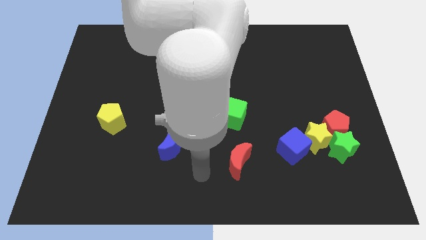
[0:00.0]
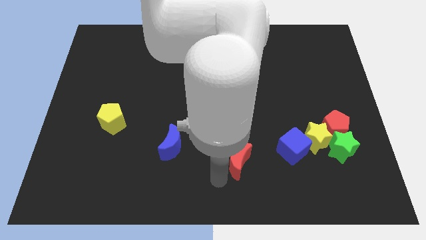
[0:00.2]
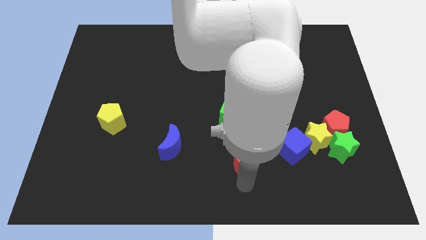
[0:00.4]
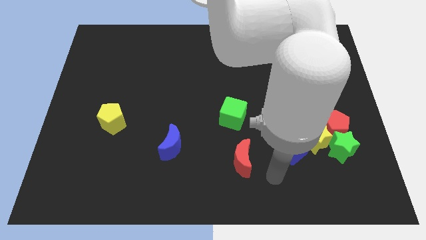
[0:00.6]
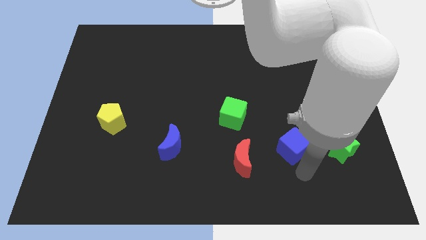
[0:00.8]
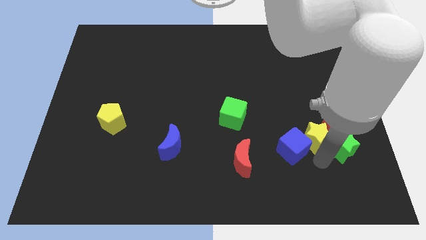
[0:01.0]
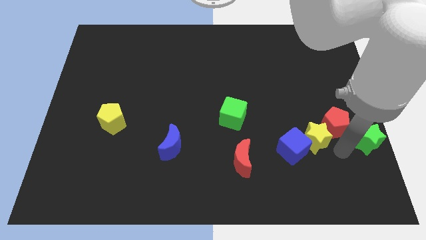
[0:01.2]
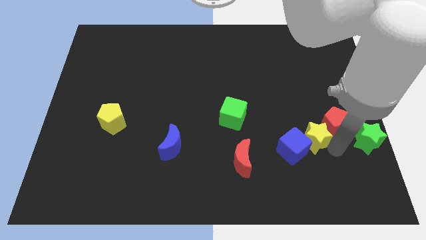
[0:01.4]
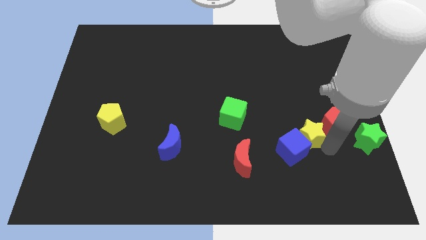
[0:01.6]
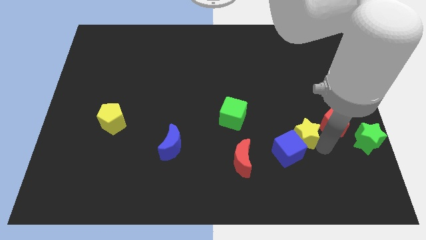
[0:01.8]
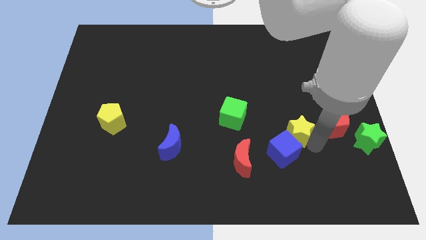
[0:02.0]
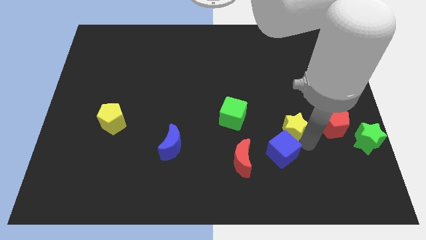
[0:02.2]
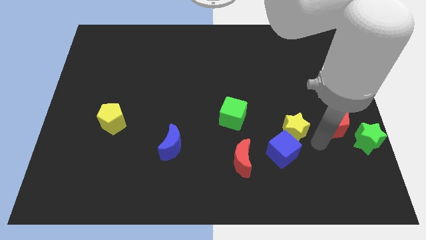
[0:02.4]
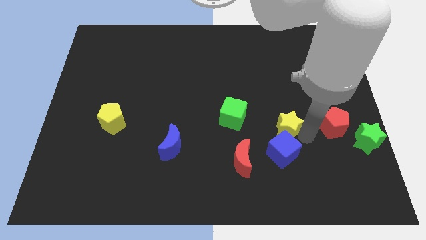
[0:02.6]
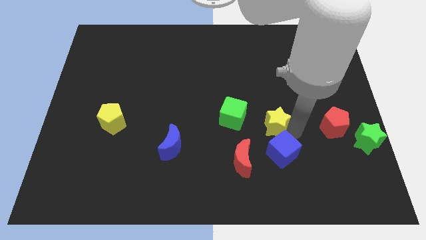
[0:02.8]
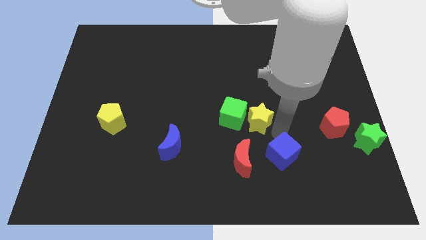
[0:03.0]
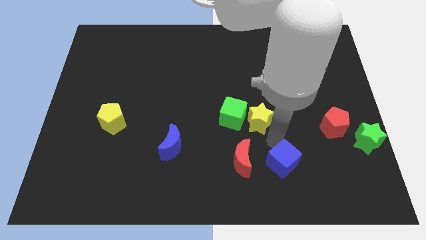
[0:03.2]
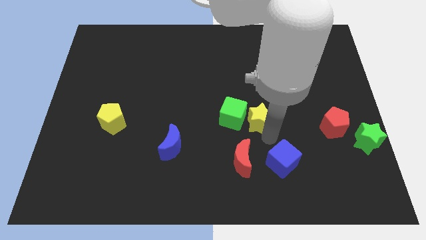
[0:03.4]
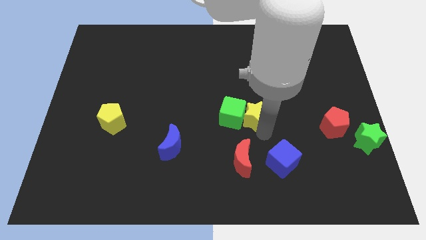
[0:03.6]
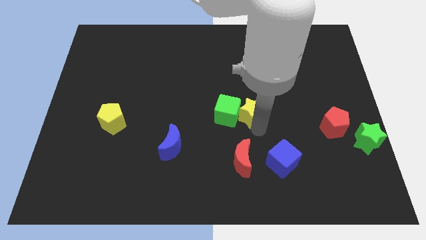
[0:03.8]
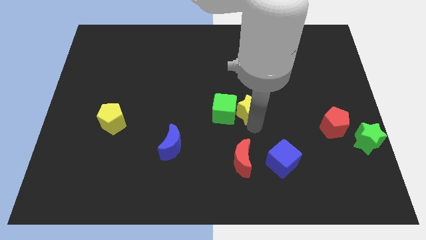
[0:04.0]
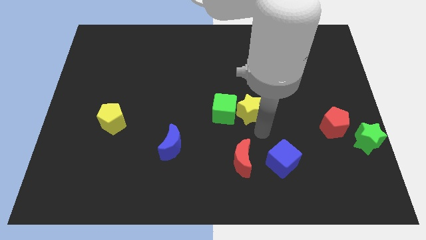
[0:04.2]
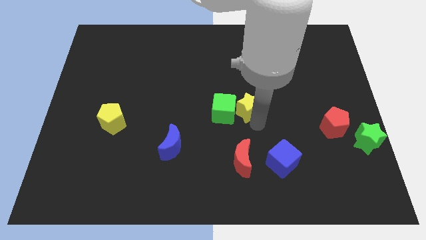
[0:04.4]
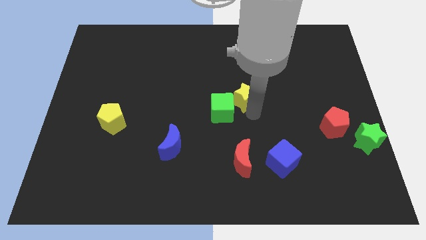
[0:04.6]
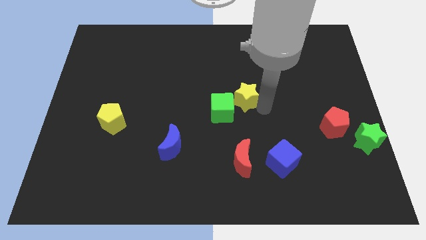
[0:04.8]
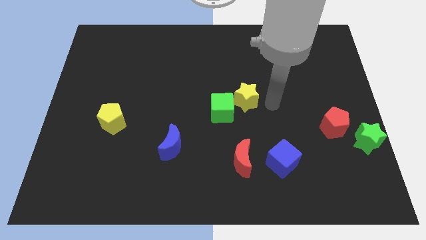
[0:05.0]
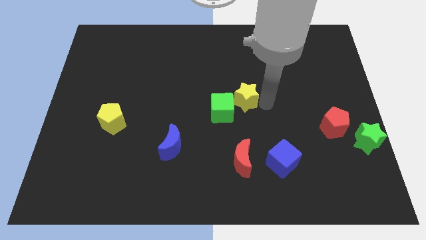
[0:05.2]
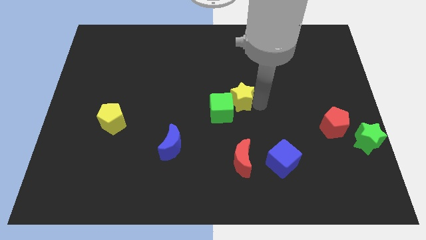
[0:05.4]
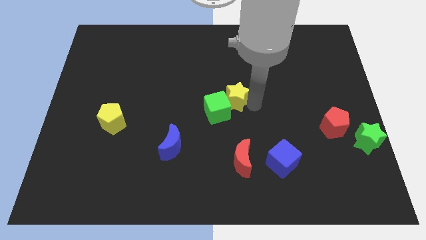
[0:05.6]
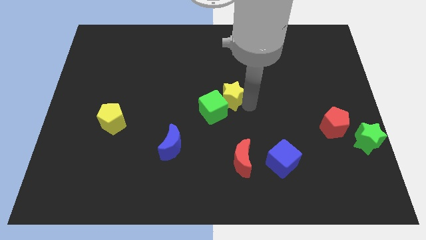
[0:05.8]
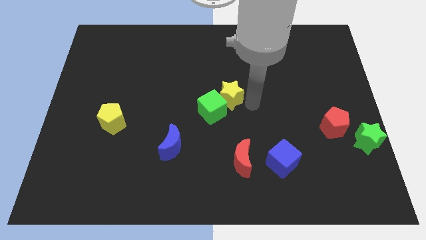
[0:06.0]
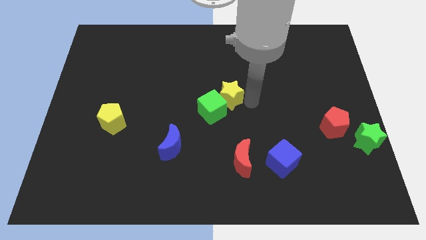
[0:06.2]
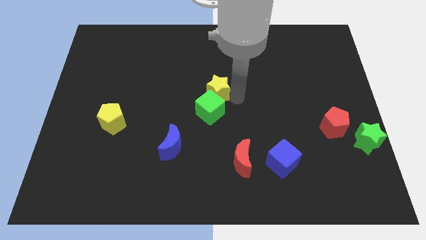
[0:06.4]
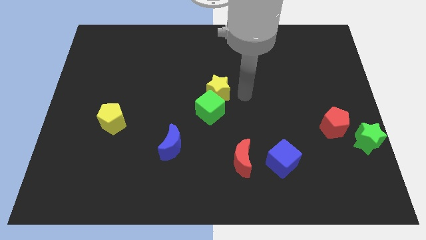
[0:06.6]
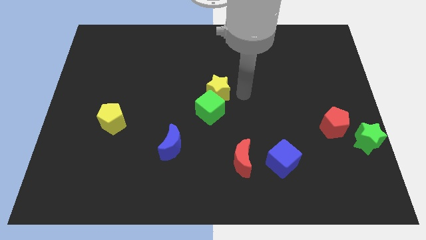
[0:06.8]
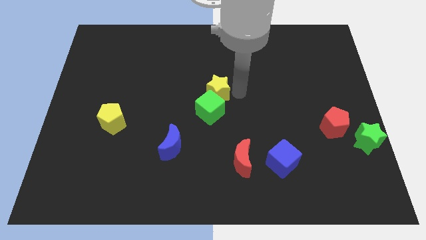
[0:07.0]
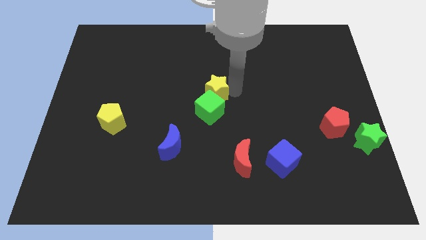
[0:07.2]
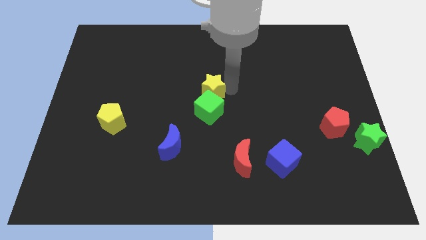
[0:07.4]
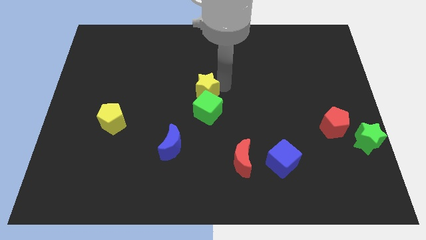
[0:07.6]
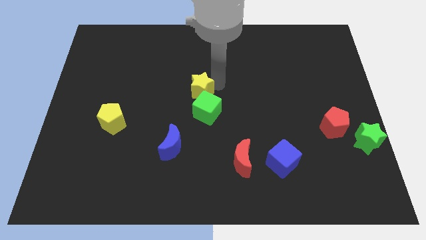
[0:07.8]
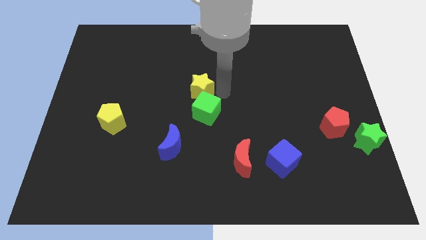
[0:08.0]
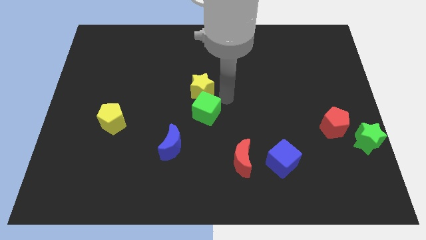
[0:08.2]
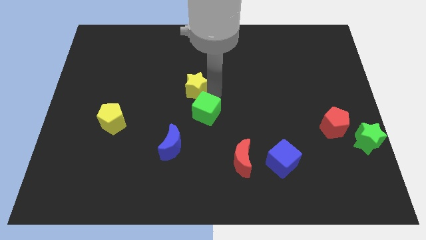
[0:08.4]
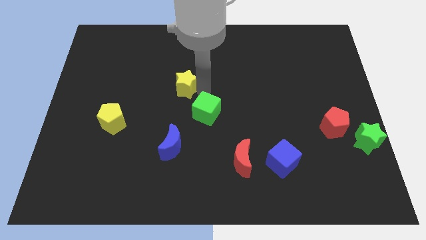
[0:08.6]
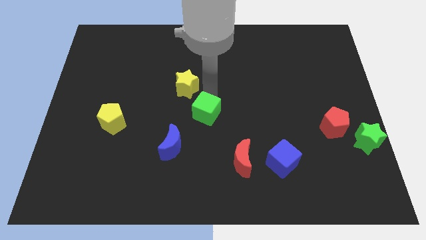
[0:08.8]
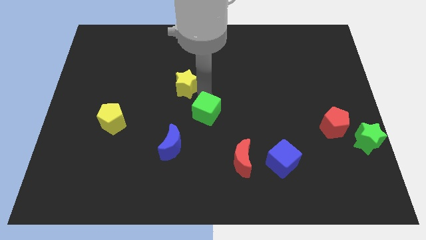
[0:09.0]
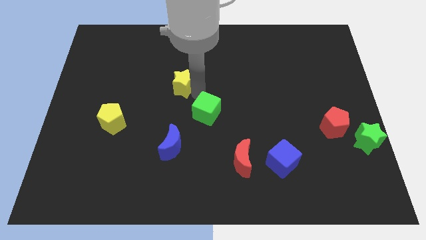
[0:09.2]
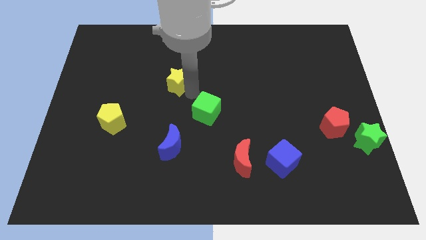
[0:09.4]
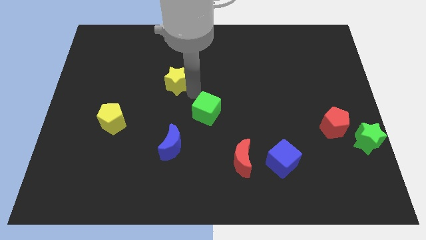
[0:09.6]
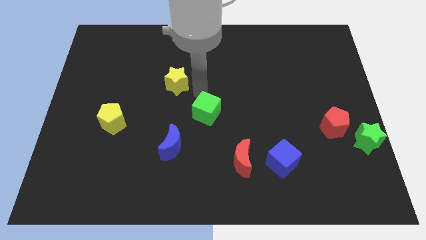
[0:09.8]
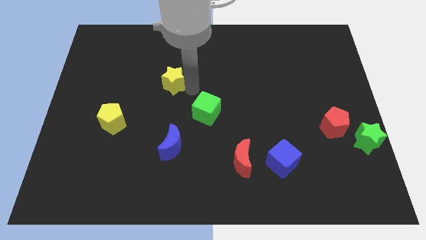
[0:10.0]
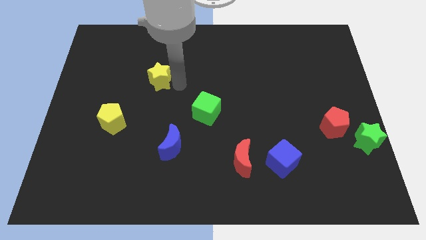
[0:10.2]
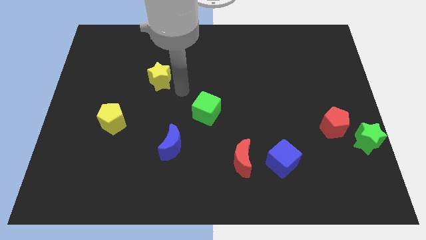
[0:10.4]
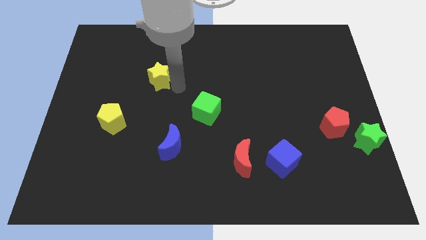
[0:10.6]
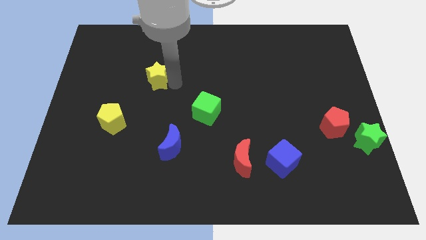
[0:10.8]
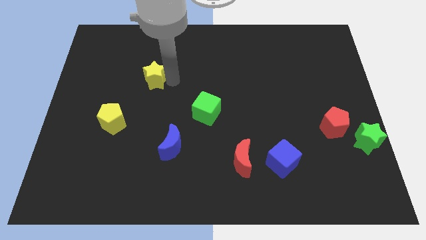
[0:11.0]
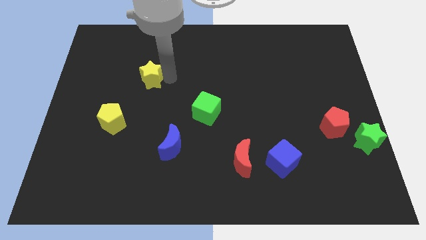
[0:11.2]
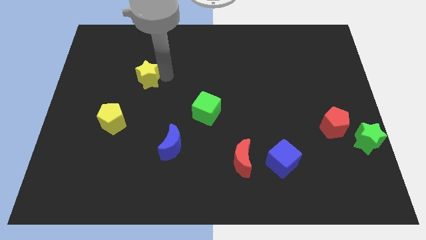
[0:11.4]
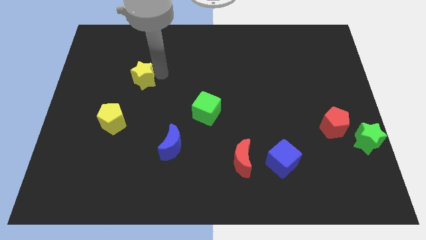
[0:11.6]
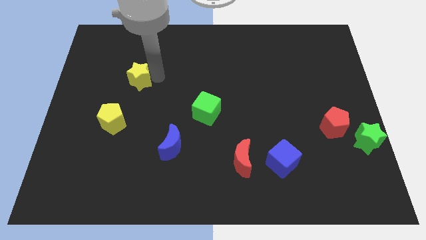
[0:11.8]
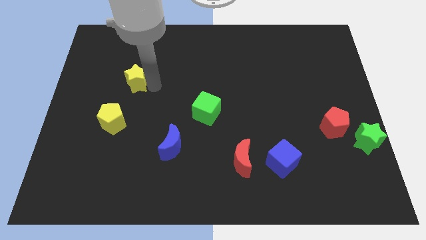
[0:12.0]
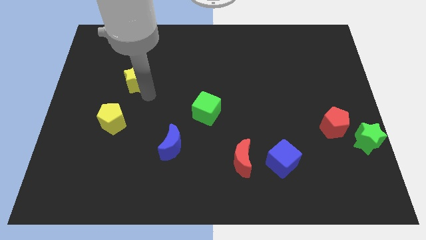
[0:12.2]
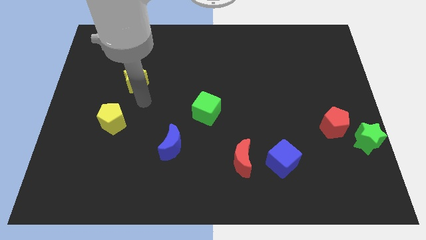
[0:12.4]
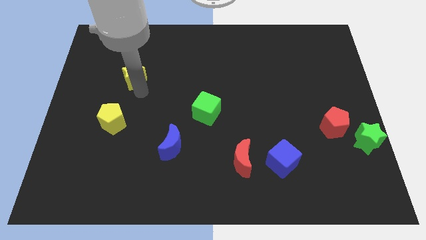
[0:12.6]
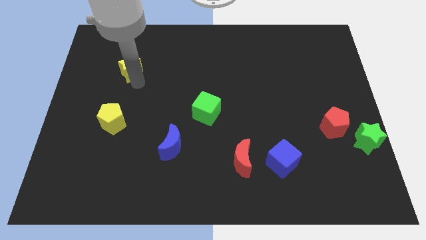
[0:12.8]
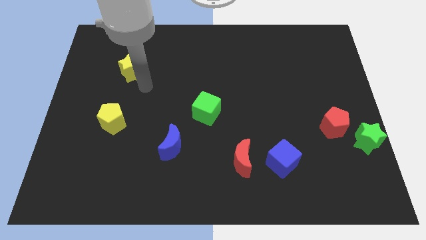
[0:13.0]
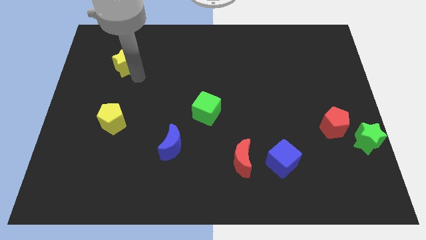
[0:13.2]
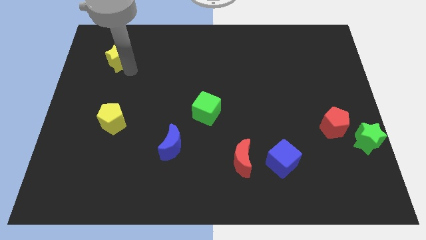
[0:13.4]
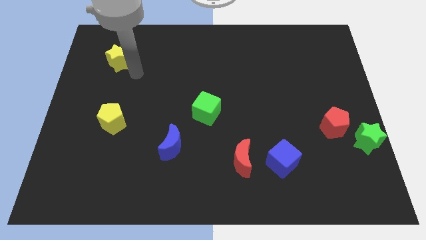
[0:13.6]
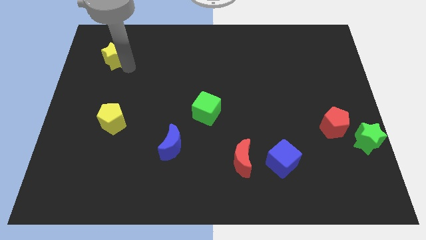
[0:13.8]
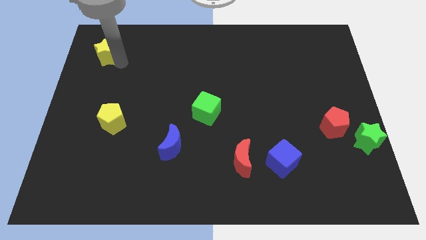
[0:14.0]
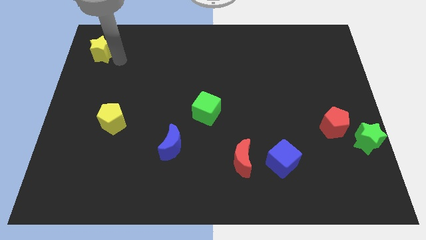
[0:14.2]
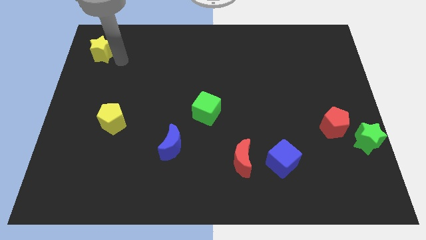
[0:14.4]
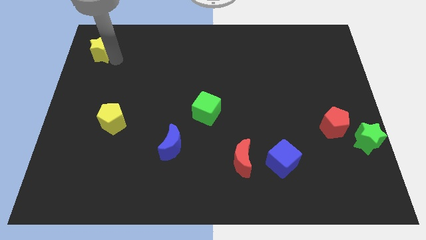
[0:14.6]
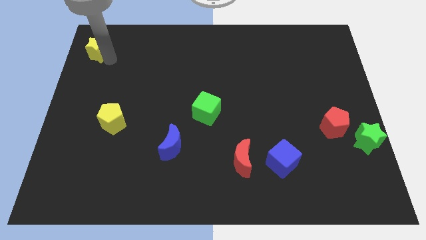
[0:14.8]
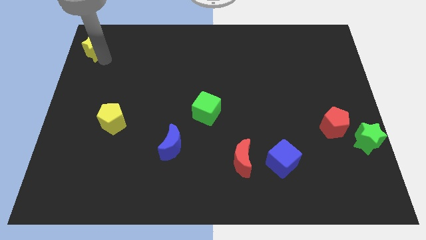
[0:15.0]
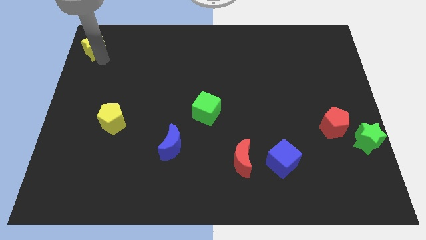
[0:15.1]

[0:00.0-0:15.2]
push the yellow star to the top left of the board
